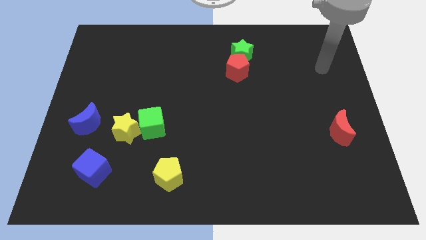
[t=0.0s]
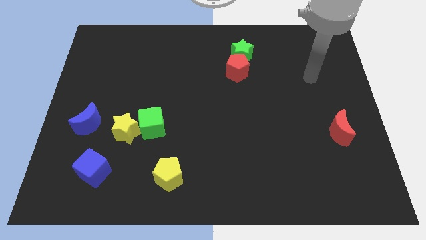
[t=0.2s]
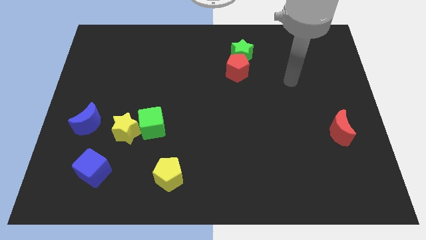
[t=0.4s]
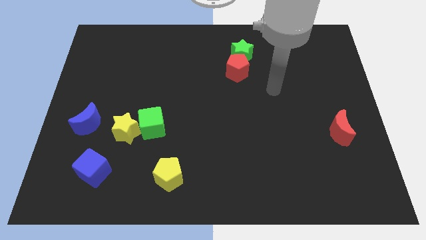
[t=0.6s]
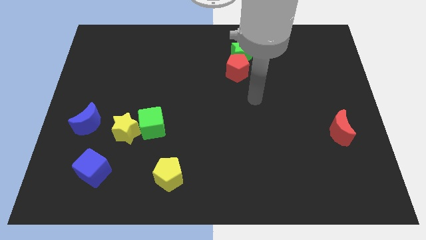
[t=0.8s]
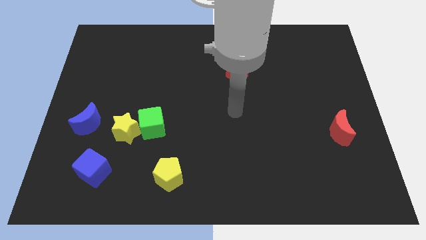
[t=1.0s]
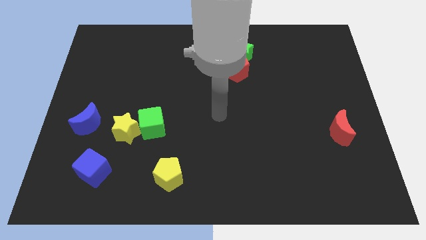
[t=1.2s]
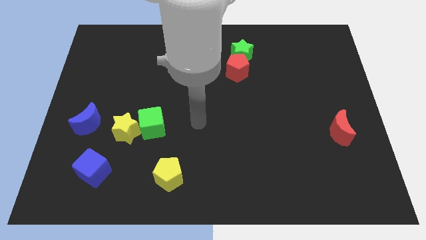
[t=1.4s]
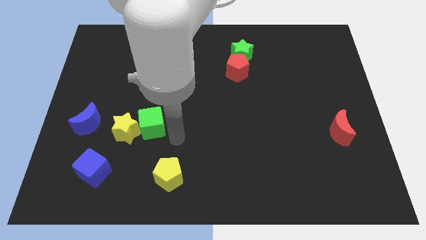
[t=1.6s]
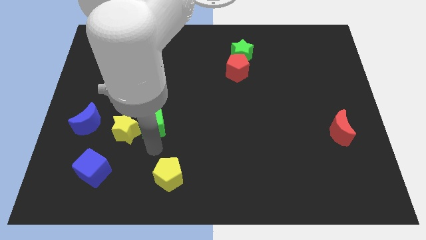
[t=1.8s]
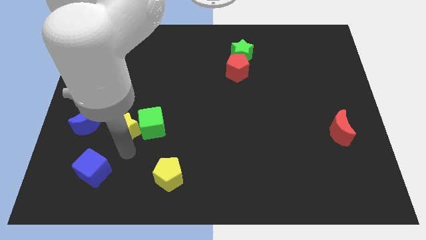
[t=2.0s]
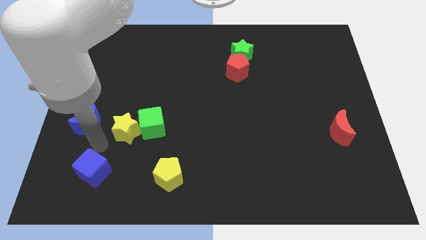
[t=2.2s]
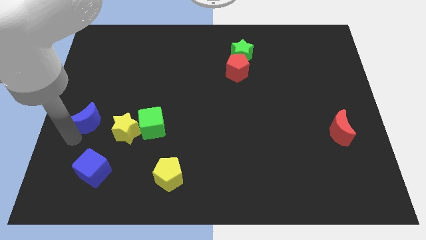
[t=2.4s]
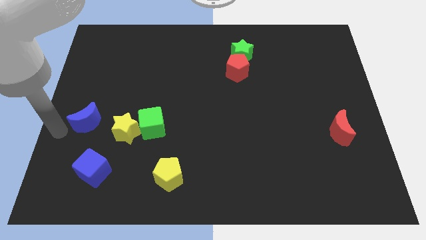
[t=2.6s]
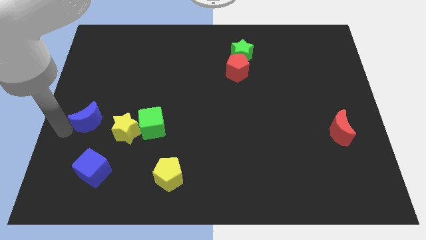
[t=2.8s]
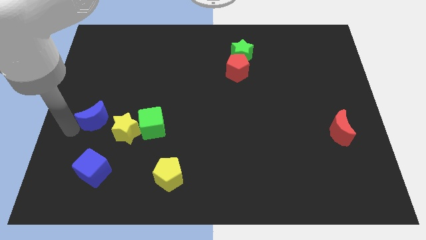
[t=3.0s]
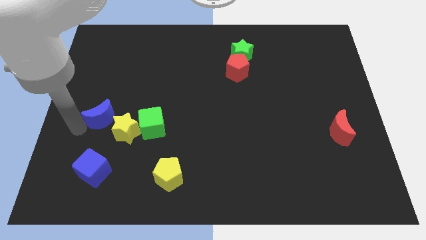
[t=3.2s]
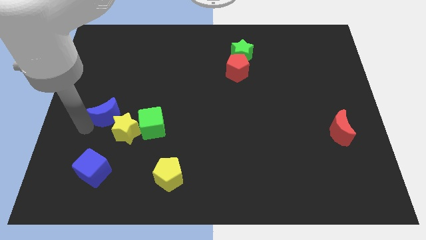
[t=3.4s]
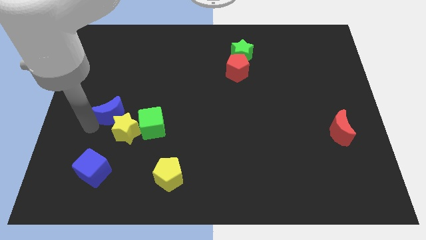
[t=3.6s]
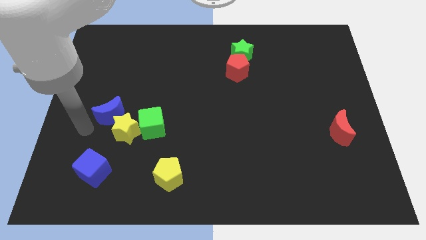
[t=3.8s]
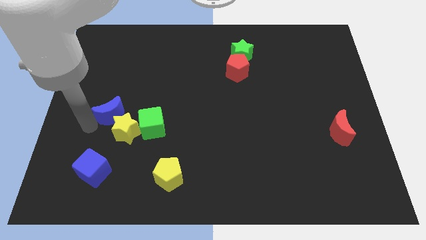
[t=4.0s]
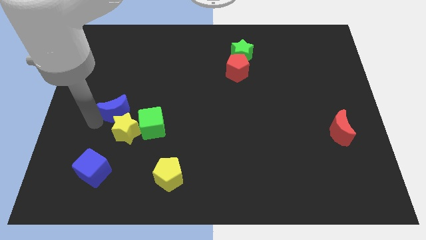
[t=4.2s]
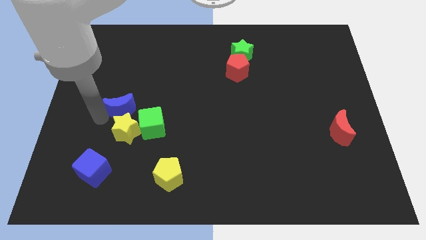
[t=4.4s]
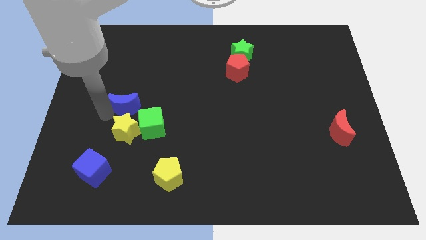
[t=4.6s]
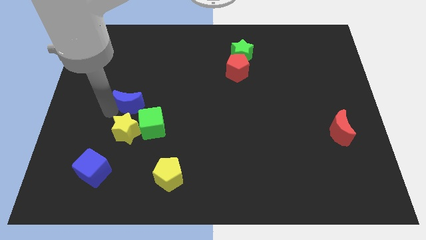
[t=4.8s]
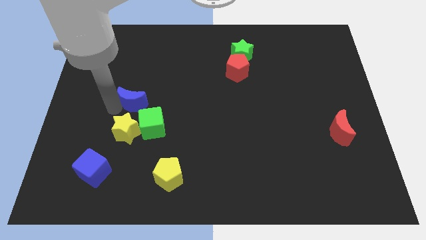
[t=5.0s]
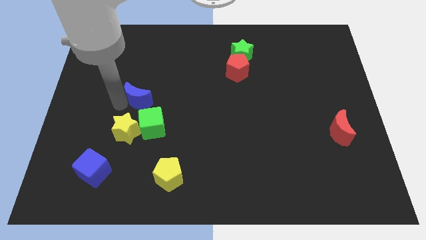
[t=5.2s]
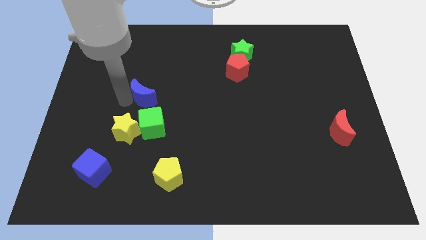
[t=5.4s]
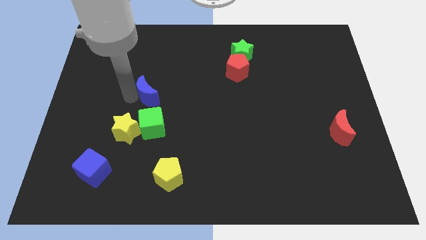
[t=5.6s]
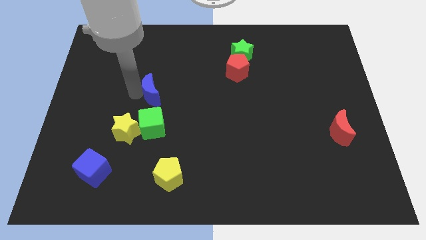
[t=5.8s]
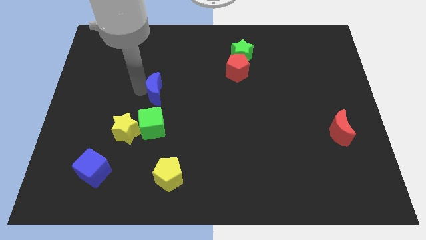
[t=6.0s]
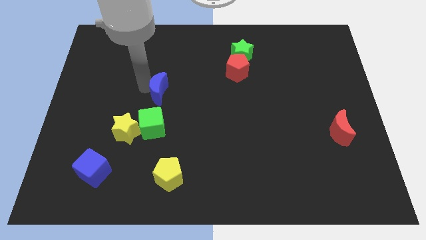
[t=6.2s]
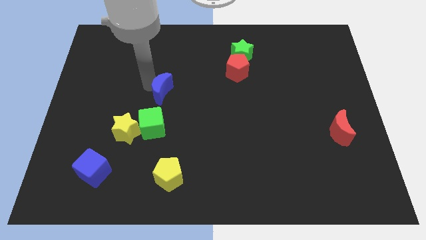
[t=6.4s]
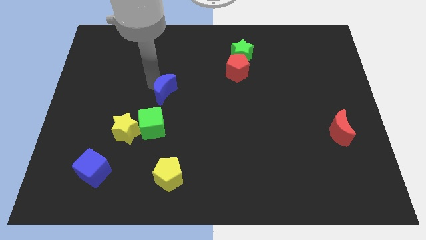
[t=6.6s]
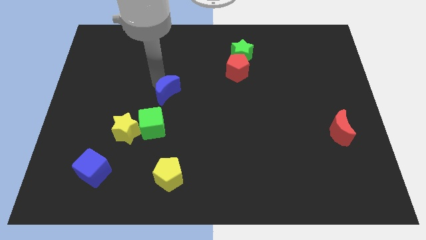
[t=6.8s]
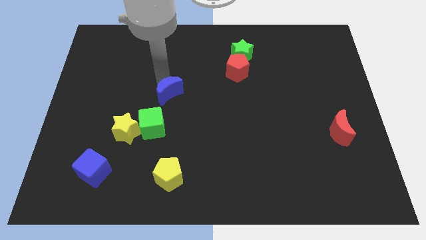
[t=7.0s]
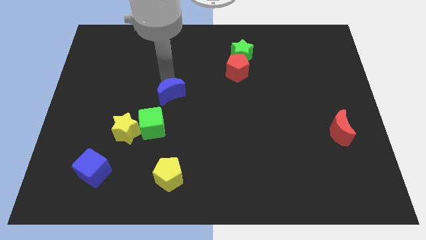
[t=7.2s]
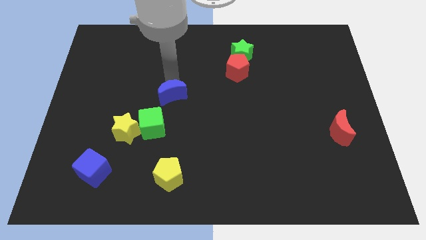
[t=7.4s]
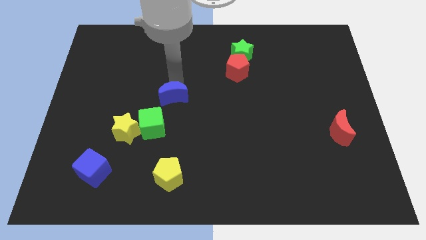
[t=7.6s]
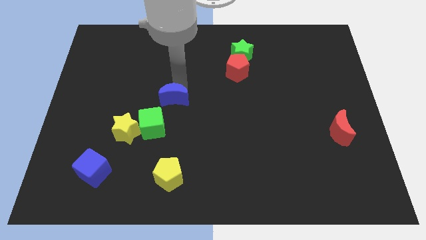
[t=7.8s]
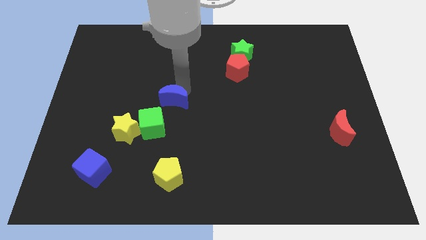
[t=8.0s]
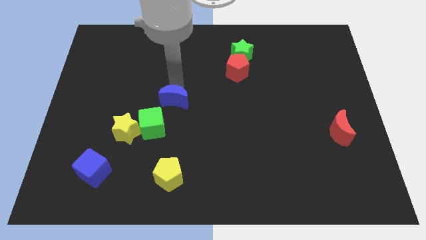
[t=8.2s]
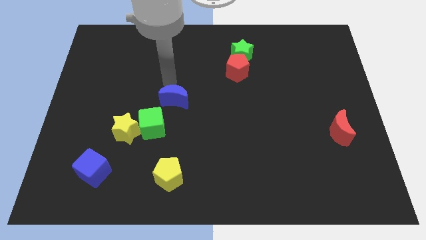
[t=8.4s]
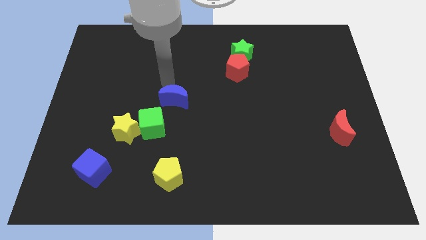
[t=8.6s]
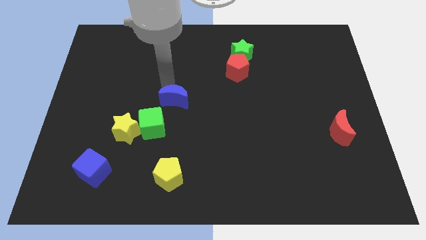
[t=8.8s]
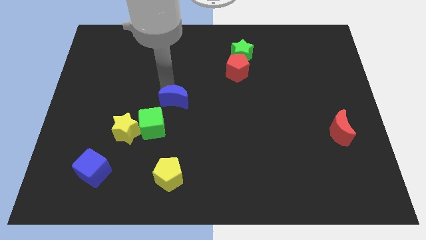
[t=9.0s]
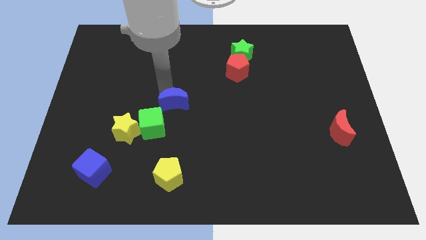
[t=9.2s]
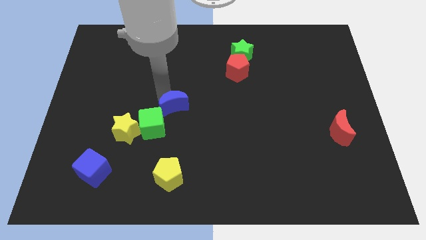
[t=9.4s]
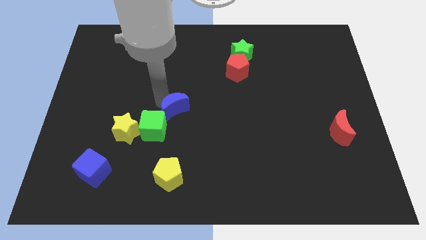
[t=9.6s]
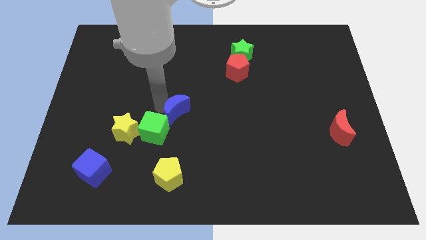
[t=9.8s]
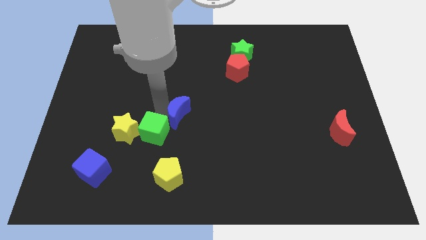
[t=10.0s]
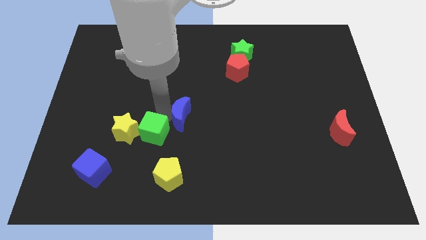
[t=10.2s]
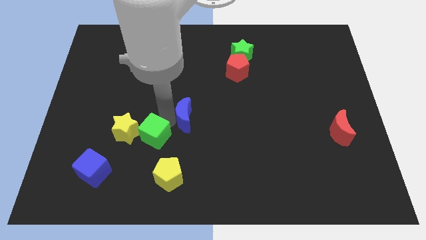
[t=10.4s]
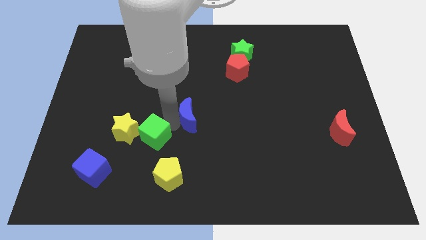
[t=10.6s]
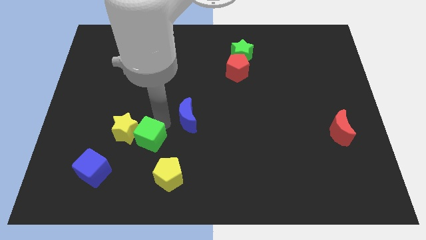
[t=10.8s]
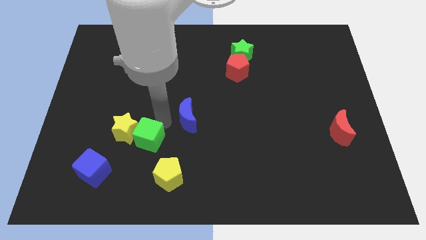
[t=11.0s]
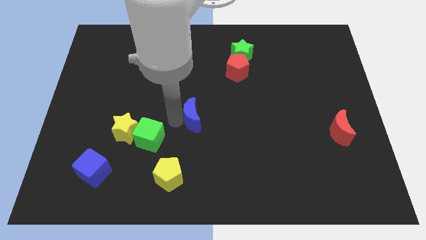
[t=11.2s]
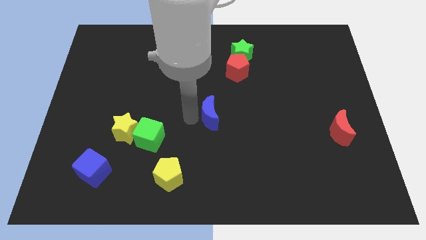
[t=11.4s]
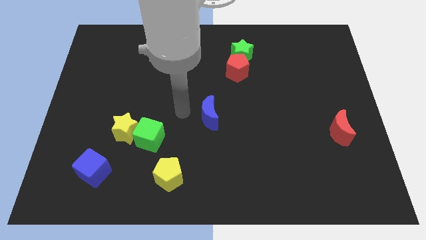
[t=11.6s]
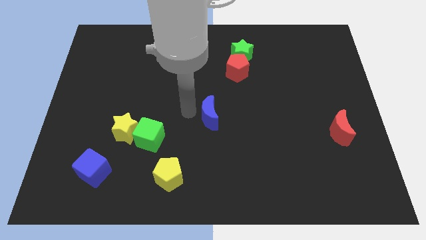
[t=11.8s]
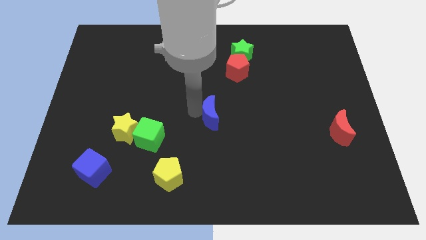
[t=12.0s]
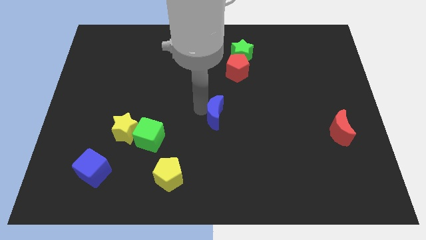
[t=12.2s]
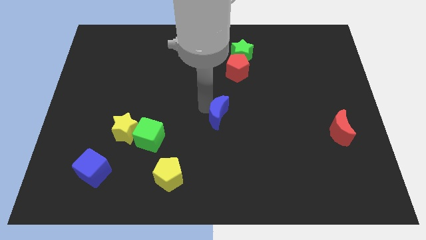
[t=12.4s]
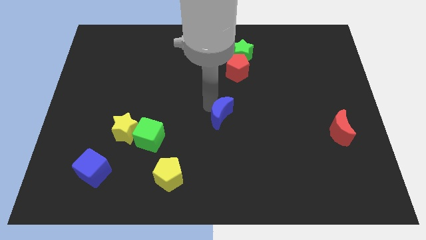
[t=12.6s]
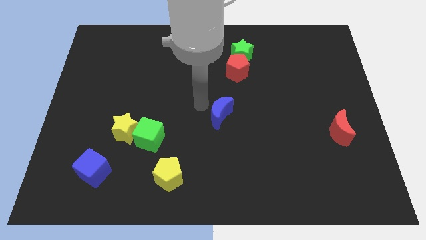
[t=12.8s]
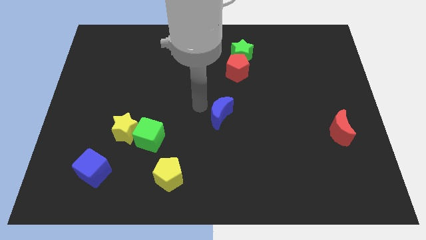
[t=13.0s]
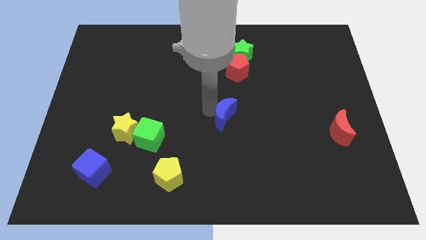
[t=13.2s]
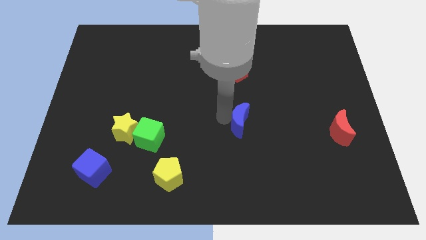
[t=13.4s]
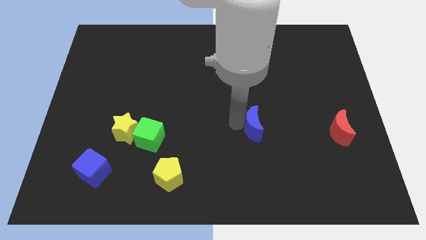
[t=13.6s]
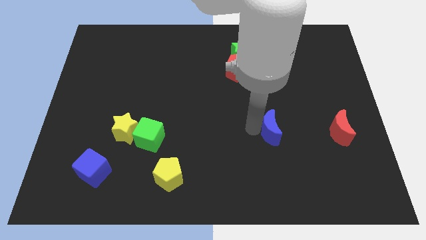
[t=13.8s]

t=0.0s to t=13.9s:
move the blue moon just left of the red moon

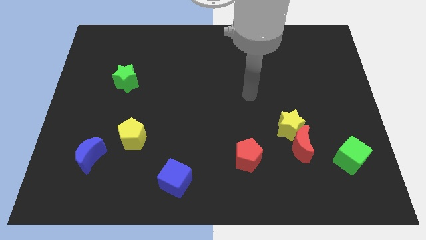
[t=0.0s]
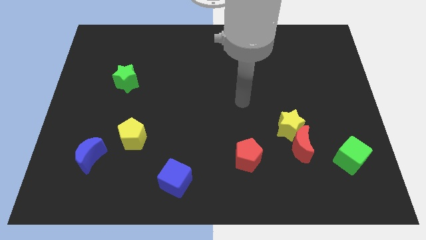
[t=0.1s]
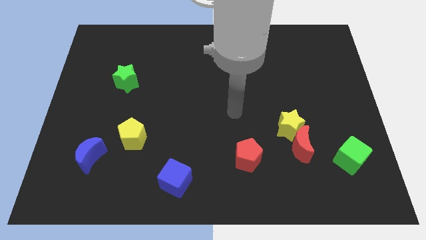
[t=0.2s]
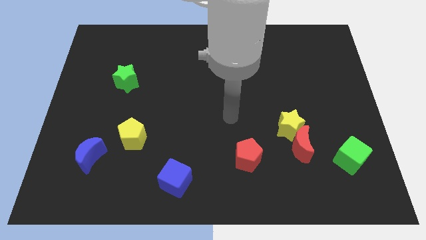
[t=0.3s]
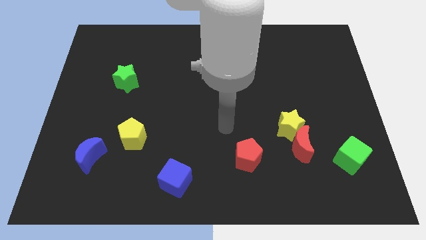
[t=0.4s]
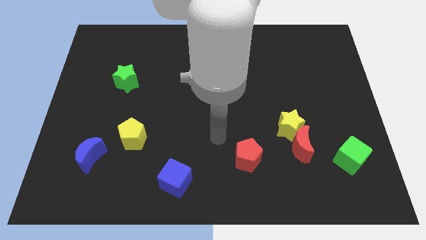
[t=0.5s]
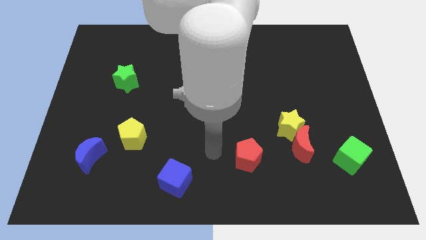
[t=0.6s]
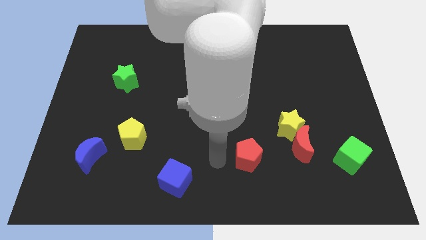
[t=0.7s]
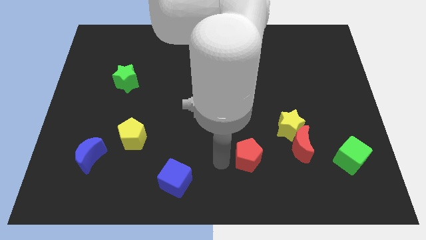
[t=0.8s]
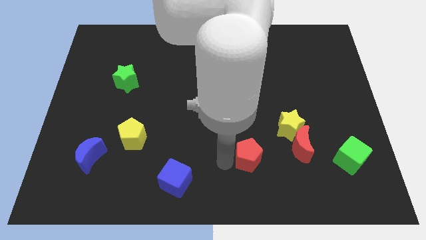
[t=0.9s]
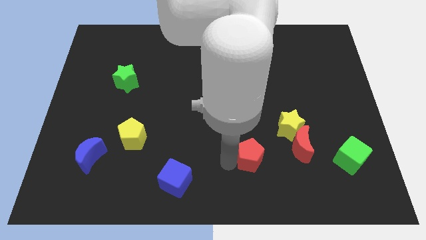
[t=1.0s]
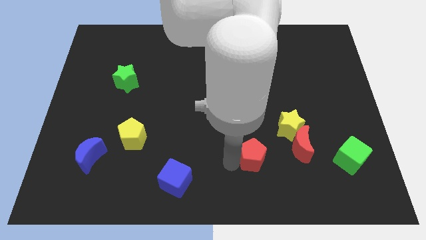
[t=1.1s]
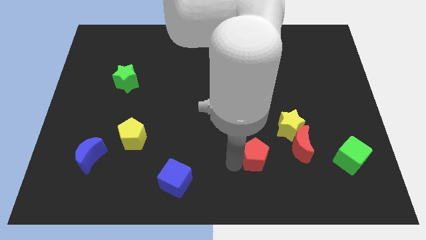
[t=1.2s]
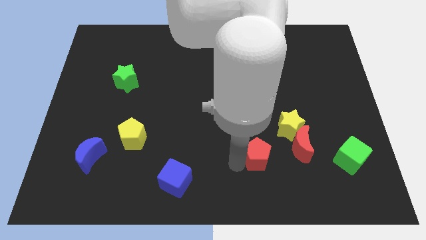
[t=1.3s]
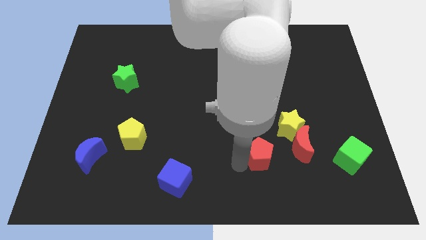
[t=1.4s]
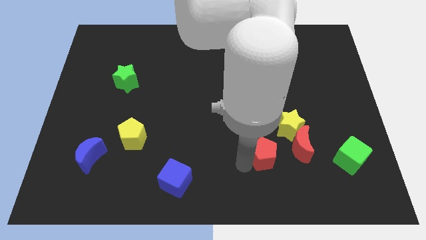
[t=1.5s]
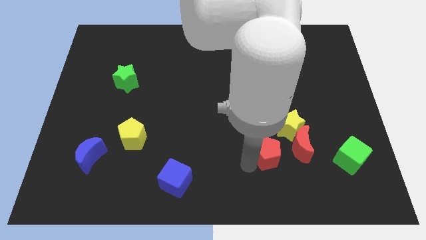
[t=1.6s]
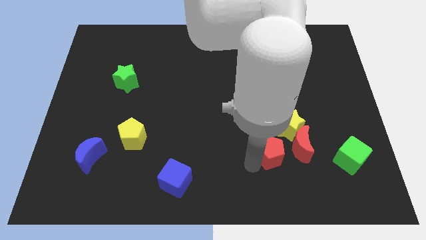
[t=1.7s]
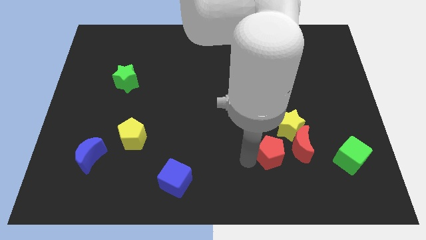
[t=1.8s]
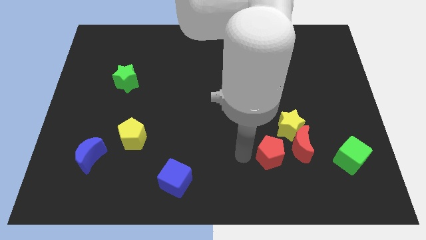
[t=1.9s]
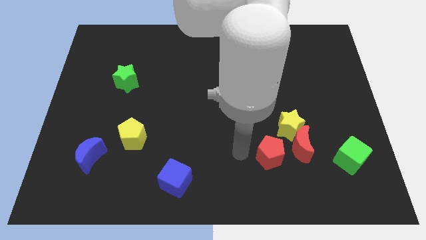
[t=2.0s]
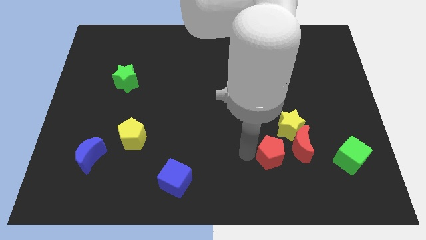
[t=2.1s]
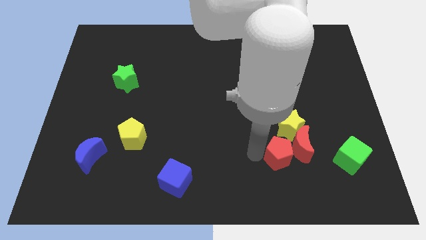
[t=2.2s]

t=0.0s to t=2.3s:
put the red pentagon to the left of the green cube
